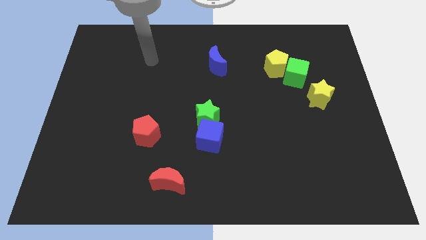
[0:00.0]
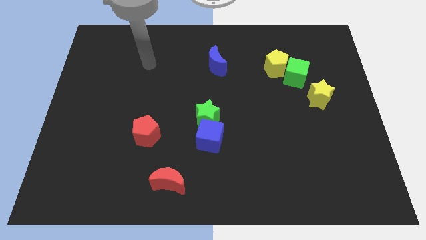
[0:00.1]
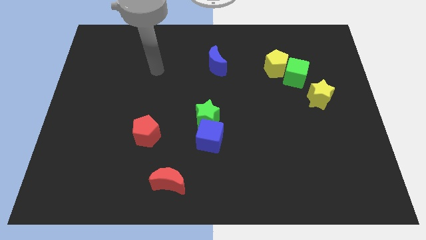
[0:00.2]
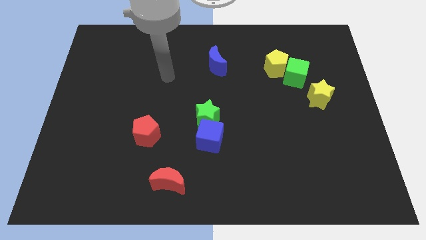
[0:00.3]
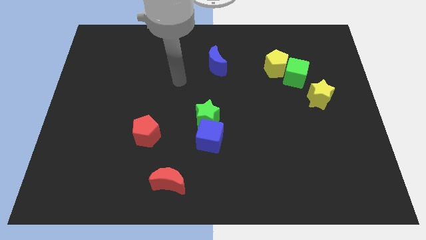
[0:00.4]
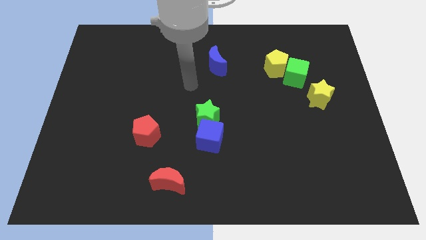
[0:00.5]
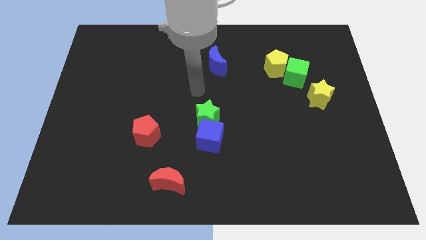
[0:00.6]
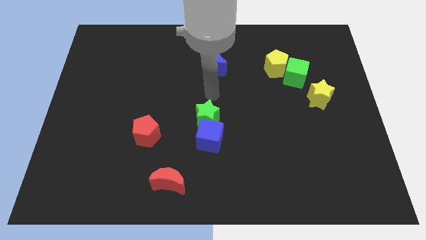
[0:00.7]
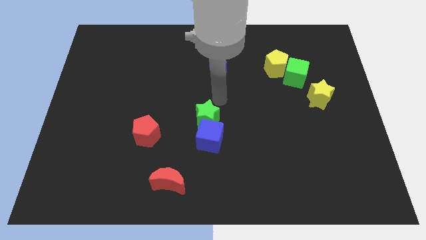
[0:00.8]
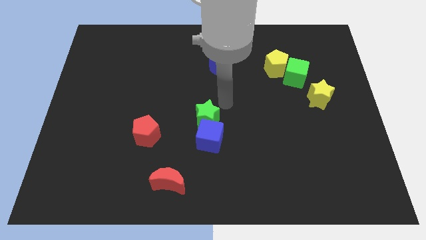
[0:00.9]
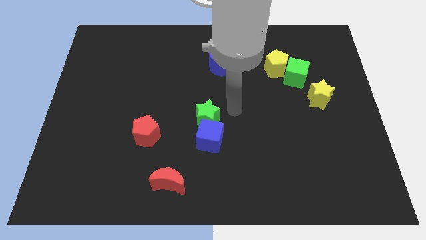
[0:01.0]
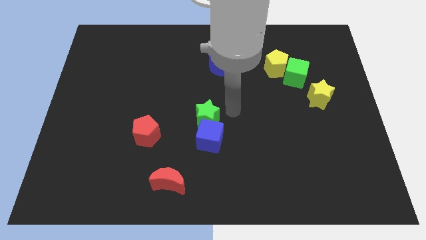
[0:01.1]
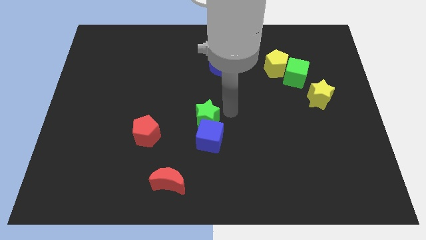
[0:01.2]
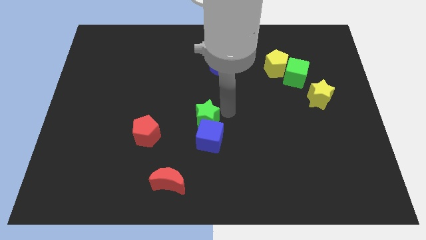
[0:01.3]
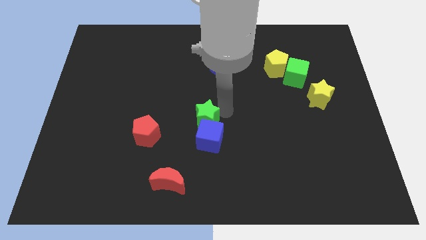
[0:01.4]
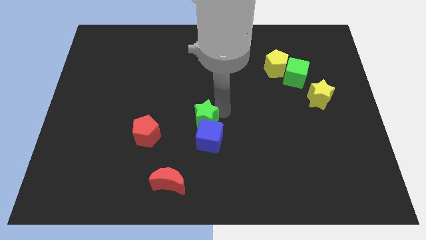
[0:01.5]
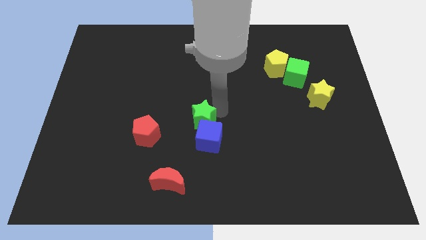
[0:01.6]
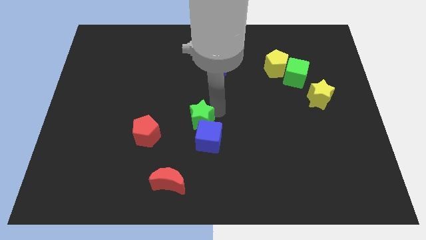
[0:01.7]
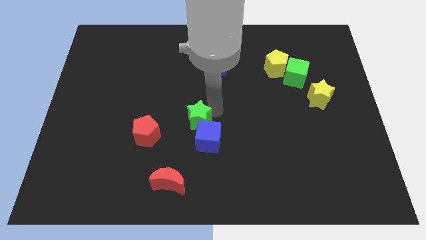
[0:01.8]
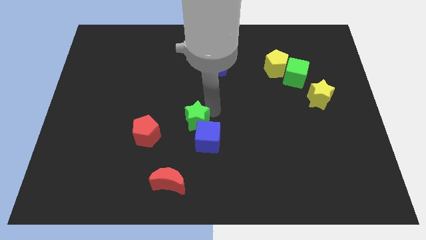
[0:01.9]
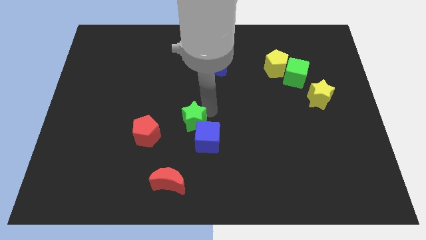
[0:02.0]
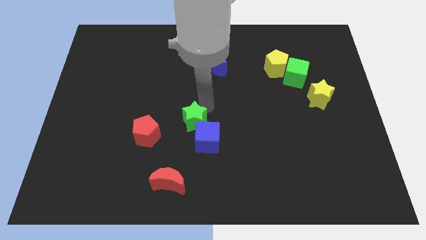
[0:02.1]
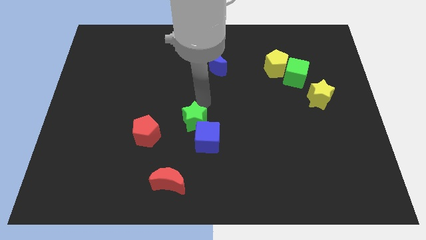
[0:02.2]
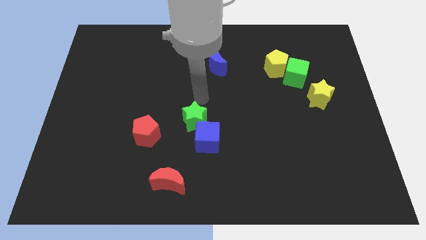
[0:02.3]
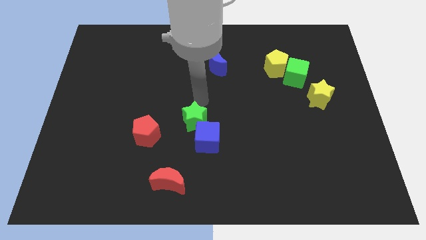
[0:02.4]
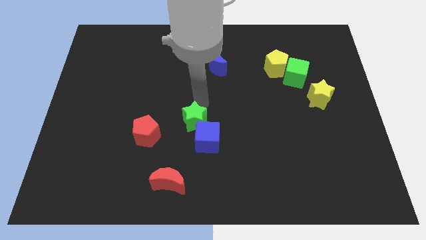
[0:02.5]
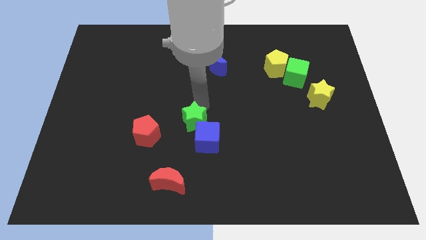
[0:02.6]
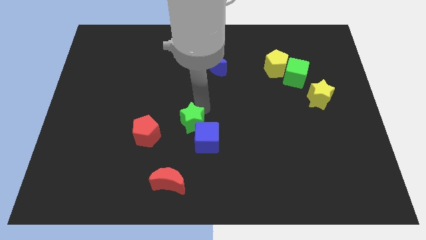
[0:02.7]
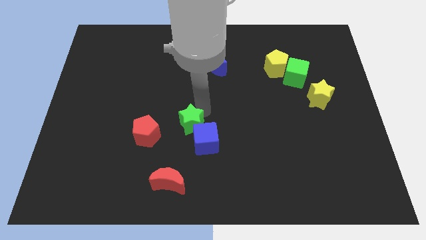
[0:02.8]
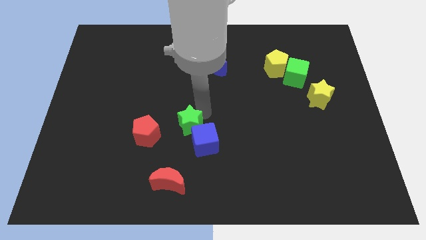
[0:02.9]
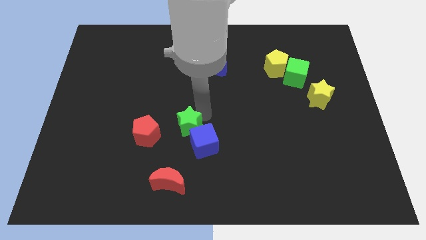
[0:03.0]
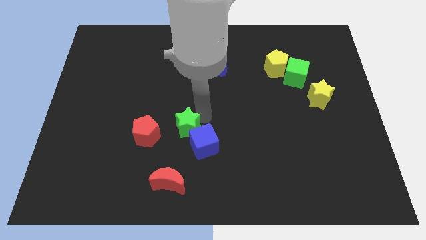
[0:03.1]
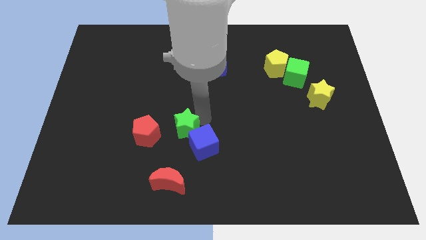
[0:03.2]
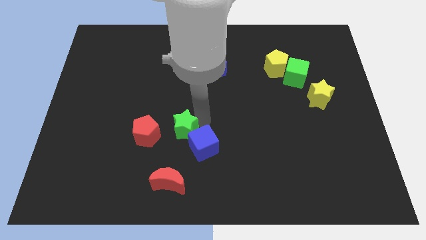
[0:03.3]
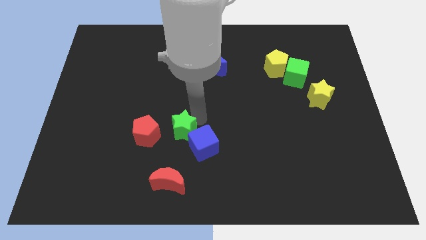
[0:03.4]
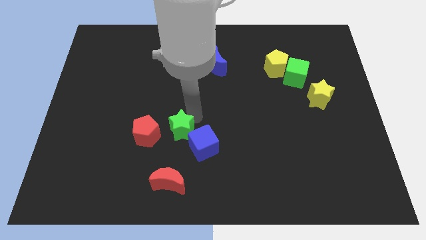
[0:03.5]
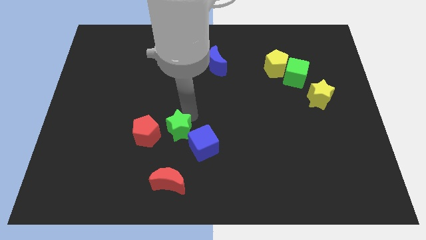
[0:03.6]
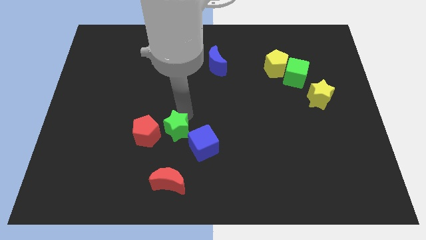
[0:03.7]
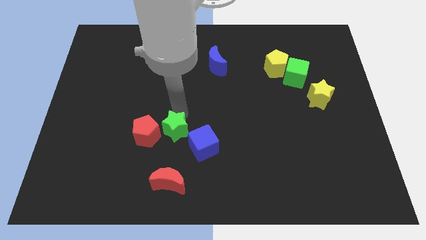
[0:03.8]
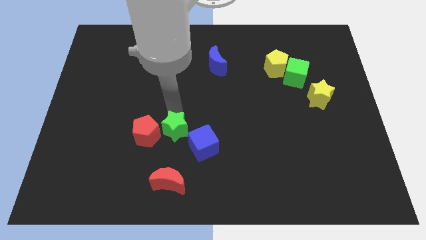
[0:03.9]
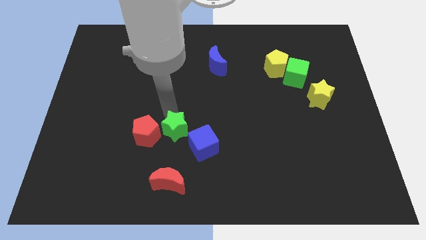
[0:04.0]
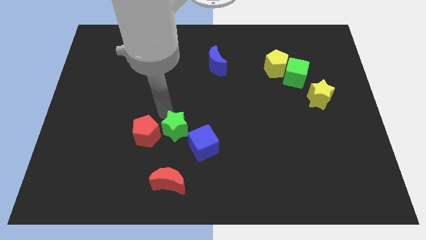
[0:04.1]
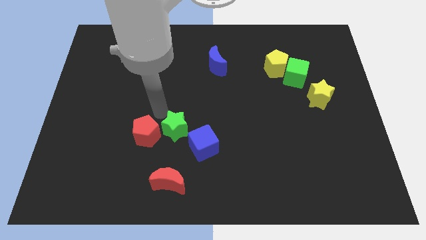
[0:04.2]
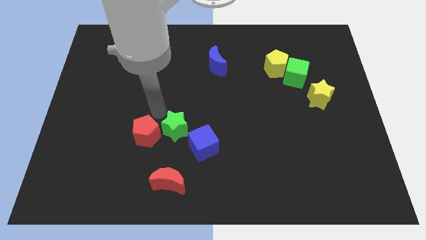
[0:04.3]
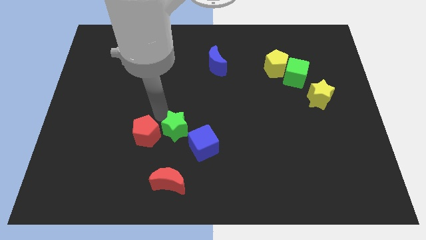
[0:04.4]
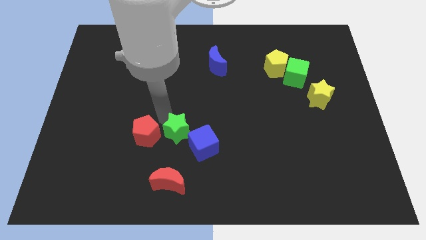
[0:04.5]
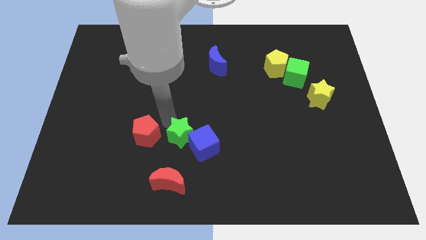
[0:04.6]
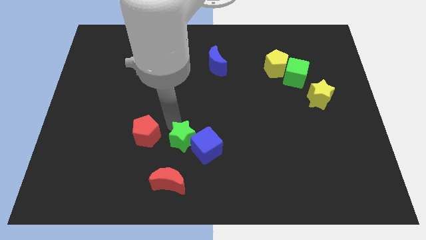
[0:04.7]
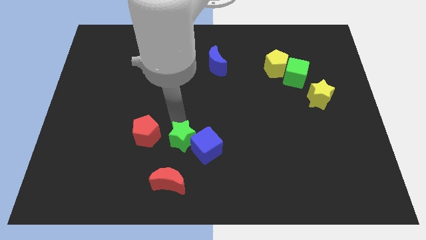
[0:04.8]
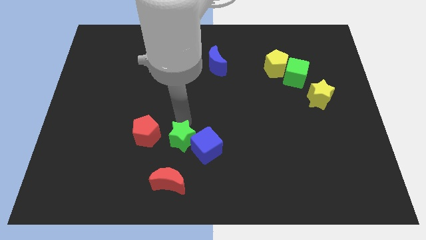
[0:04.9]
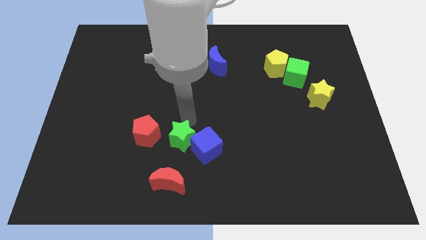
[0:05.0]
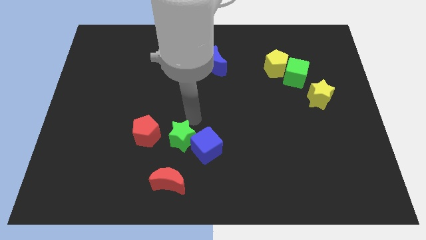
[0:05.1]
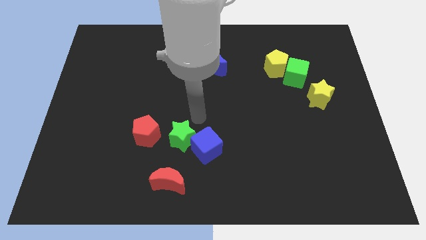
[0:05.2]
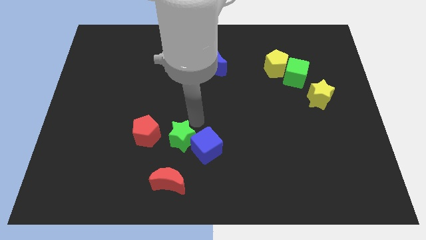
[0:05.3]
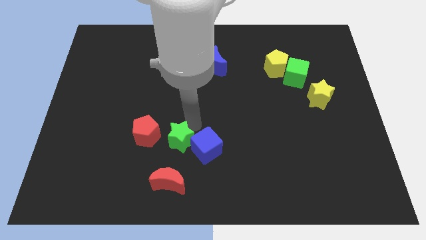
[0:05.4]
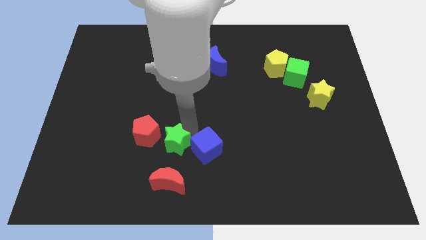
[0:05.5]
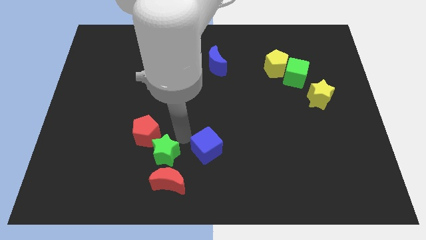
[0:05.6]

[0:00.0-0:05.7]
slide the green star to the bottom side of the red pentagon

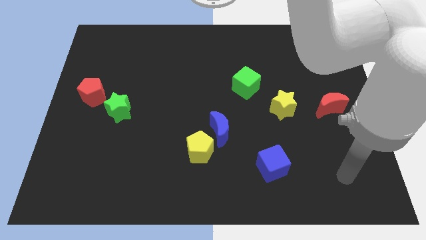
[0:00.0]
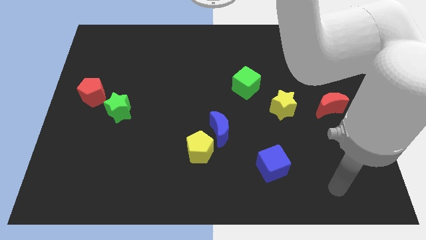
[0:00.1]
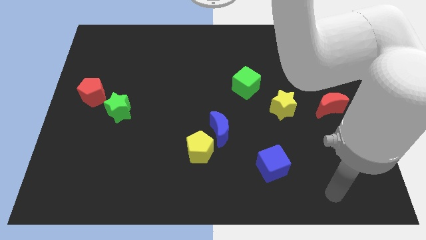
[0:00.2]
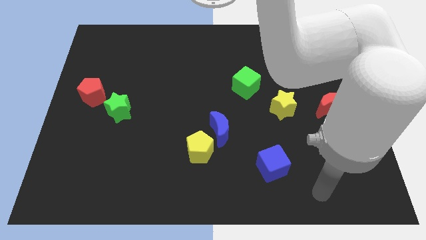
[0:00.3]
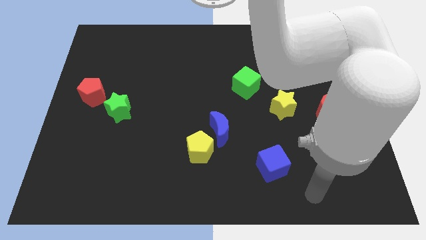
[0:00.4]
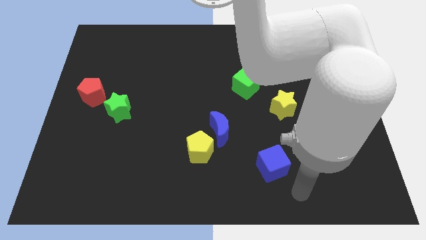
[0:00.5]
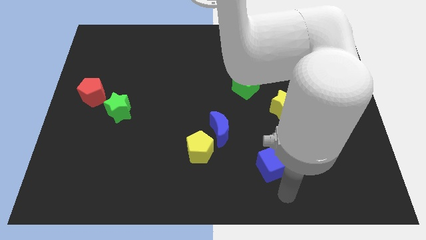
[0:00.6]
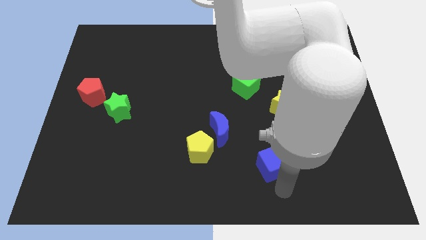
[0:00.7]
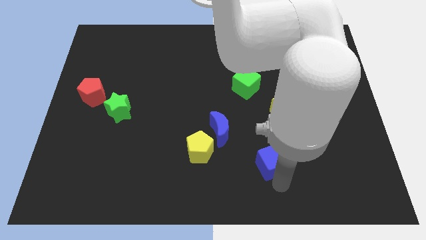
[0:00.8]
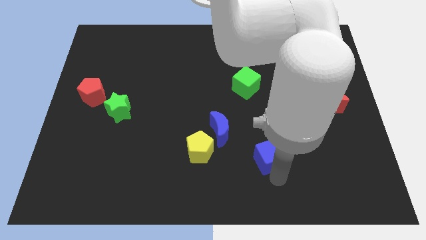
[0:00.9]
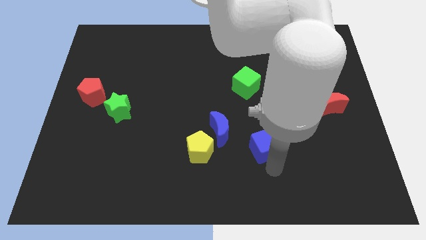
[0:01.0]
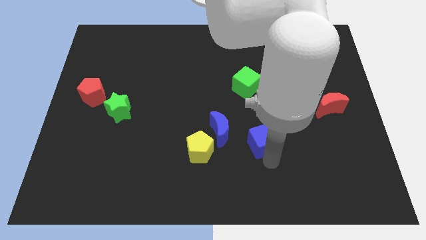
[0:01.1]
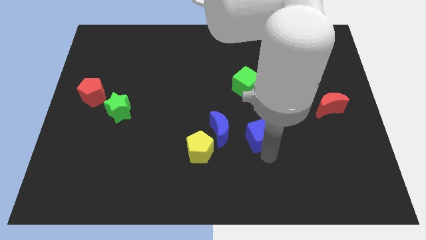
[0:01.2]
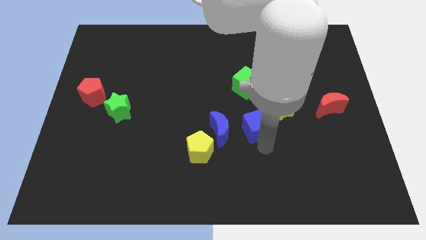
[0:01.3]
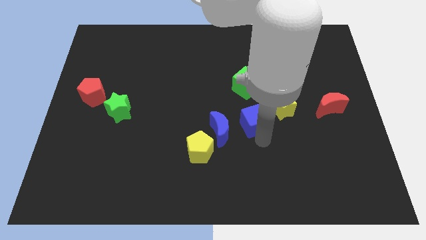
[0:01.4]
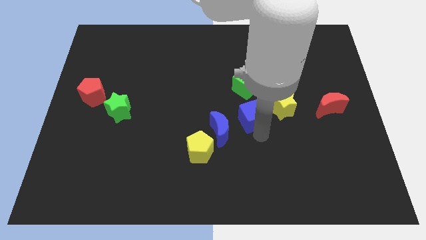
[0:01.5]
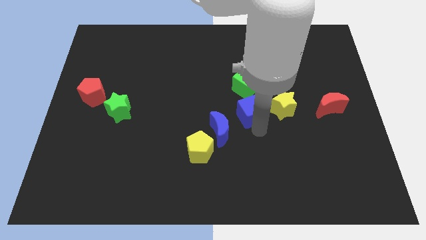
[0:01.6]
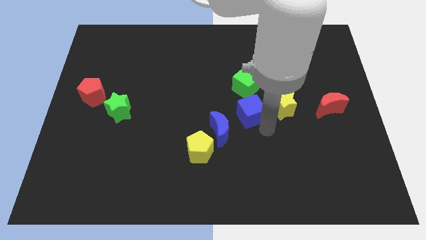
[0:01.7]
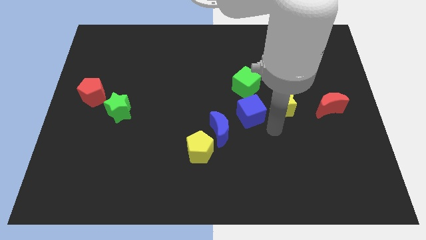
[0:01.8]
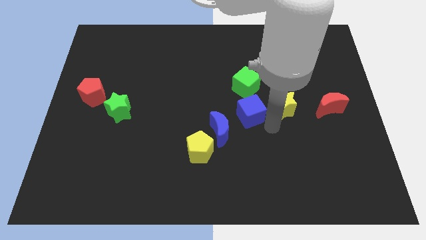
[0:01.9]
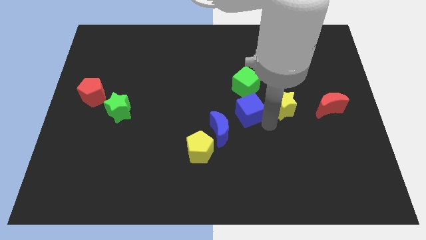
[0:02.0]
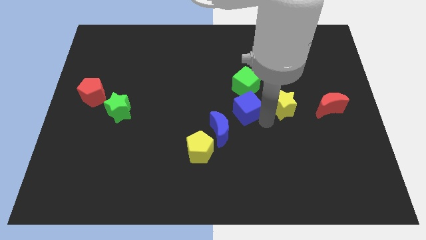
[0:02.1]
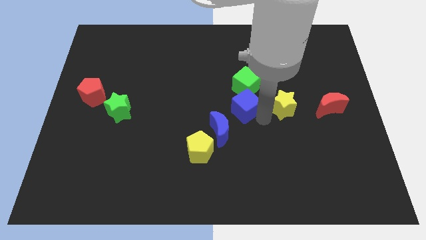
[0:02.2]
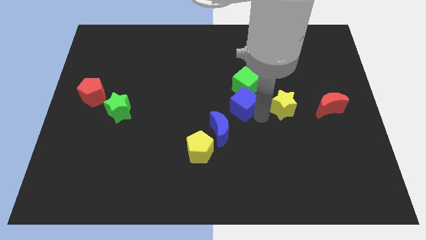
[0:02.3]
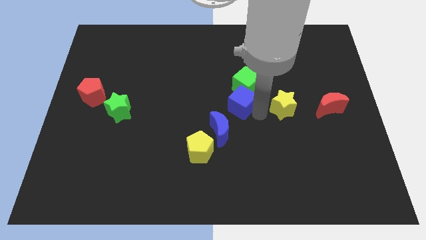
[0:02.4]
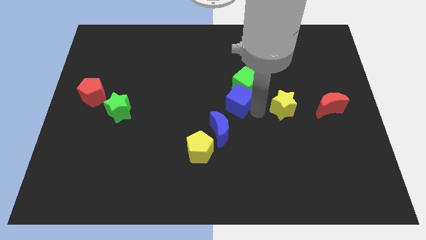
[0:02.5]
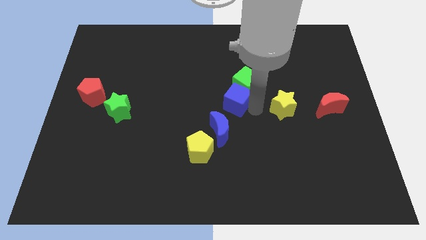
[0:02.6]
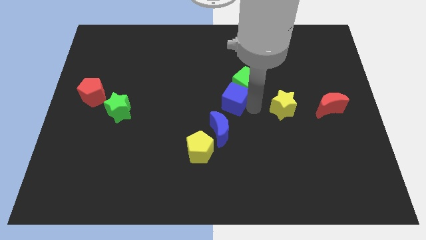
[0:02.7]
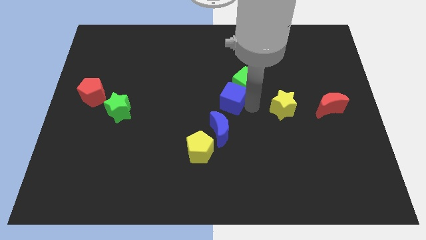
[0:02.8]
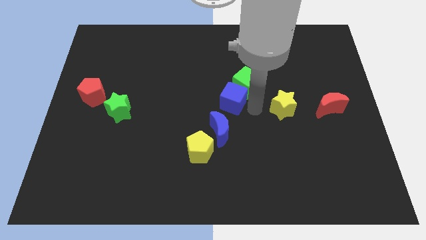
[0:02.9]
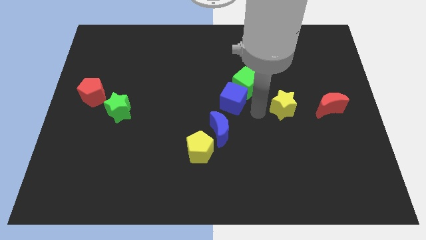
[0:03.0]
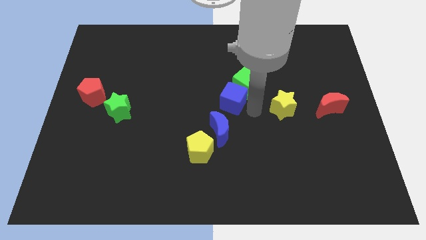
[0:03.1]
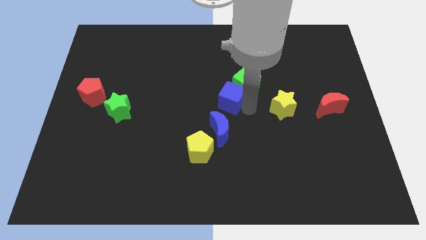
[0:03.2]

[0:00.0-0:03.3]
move the blue cube to the left side of the green cube
